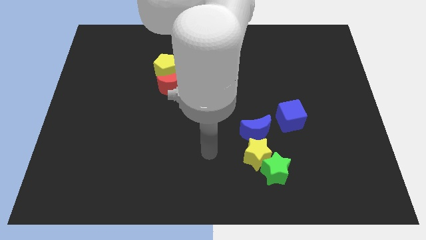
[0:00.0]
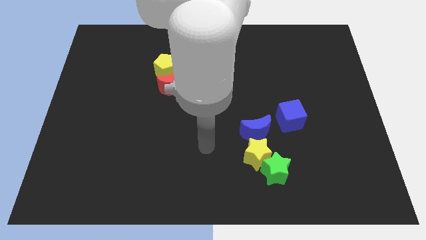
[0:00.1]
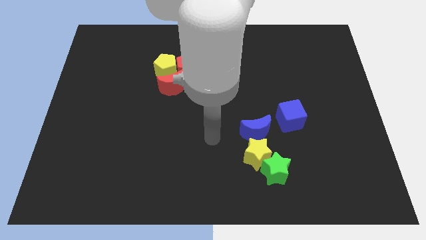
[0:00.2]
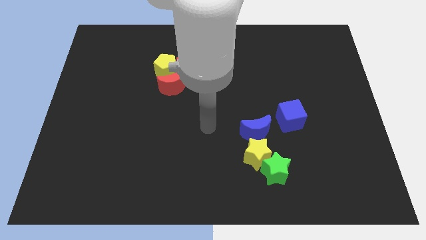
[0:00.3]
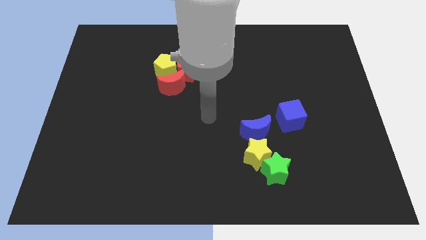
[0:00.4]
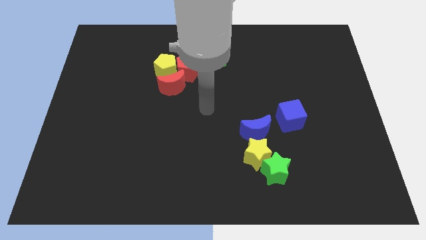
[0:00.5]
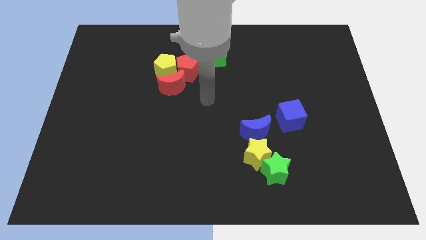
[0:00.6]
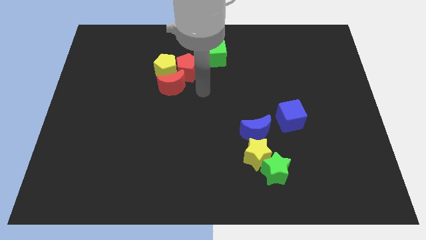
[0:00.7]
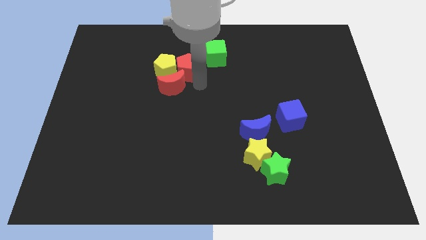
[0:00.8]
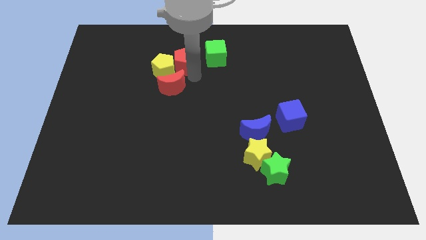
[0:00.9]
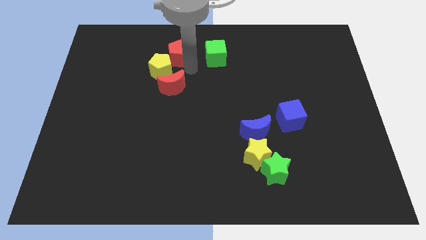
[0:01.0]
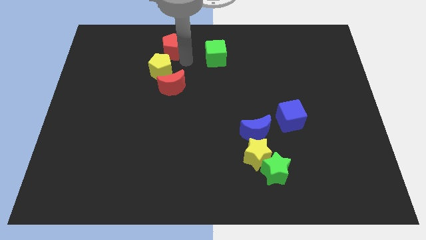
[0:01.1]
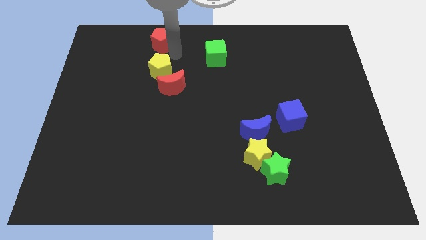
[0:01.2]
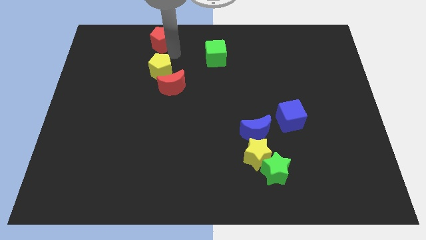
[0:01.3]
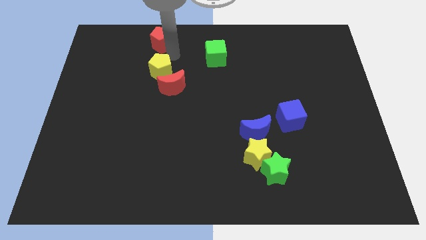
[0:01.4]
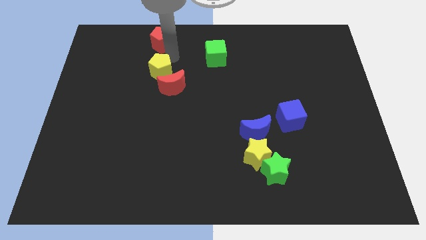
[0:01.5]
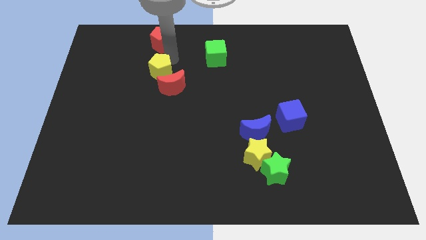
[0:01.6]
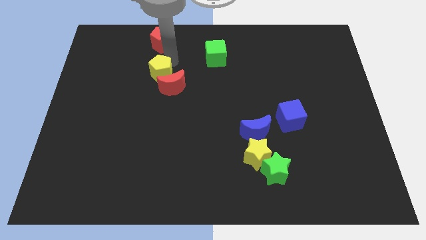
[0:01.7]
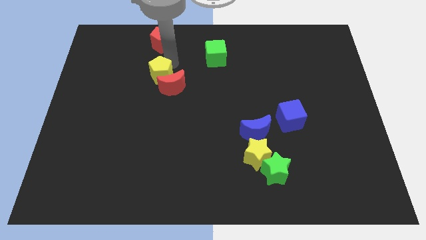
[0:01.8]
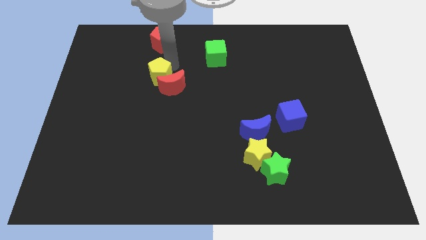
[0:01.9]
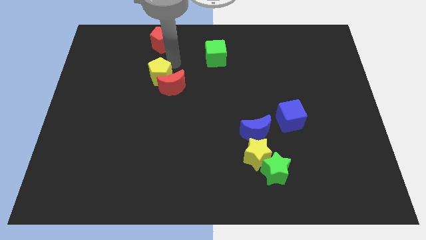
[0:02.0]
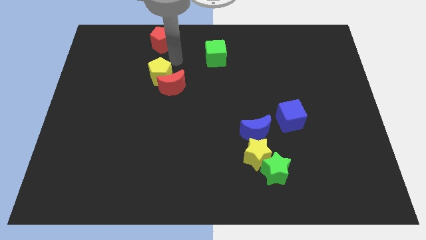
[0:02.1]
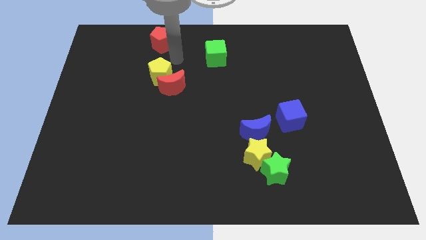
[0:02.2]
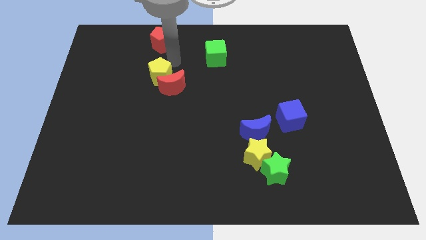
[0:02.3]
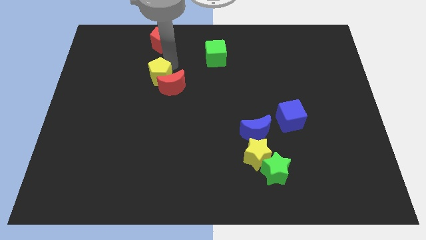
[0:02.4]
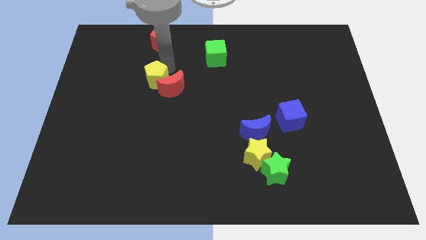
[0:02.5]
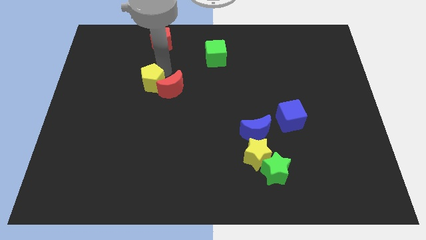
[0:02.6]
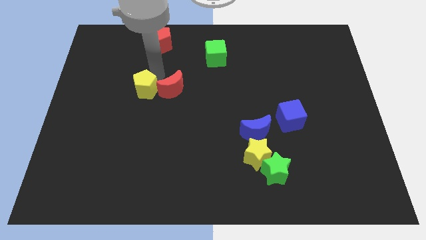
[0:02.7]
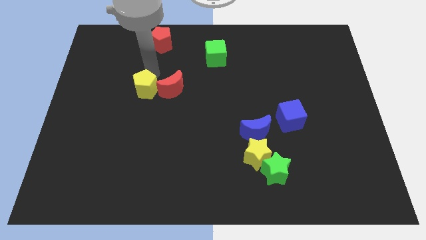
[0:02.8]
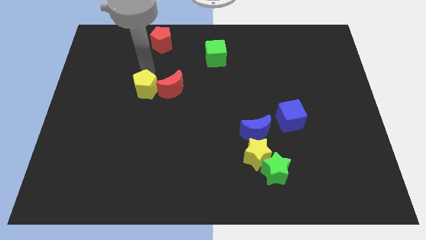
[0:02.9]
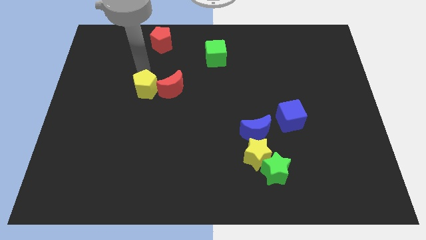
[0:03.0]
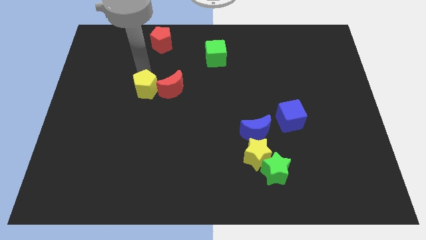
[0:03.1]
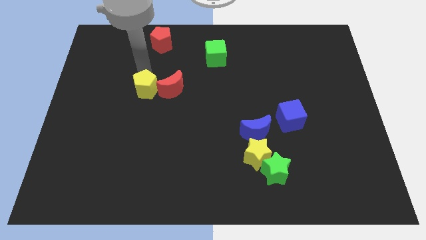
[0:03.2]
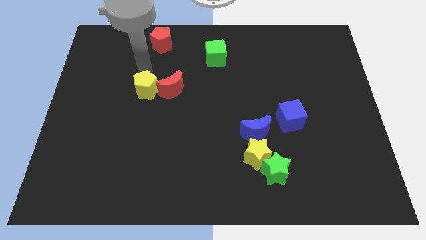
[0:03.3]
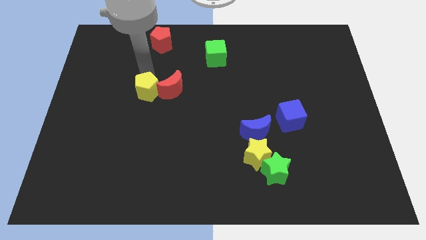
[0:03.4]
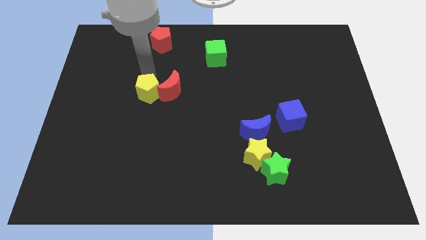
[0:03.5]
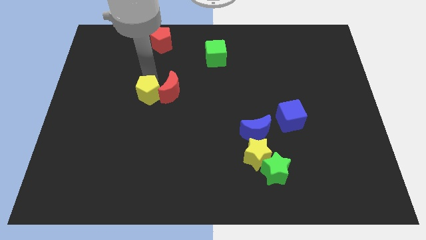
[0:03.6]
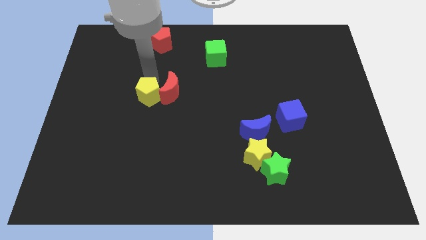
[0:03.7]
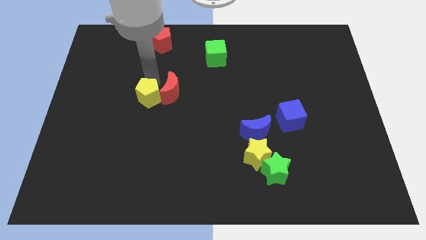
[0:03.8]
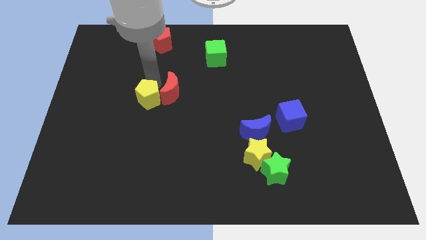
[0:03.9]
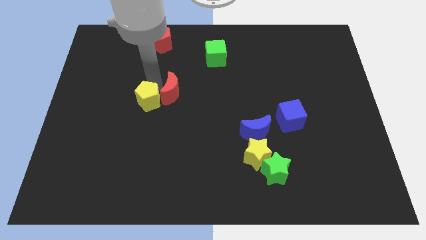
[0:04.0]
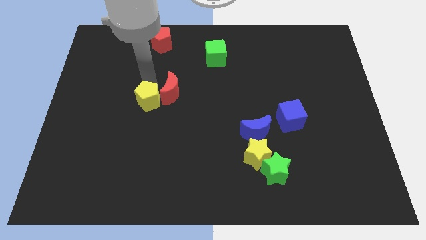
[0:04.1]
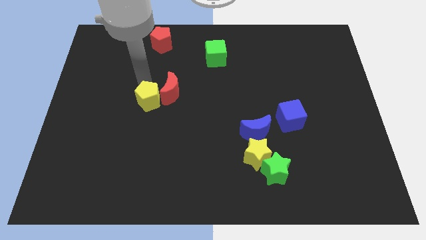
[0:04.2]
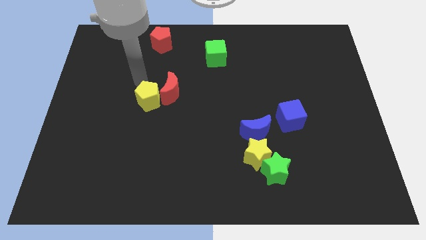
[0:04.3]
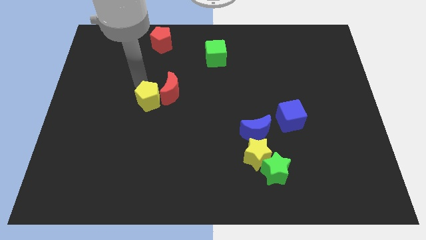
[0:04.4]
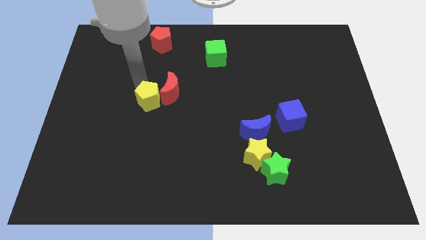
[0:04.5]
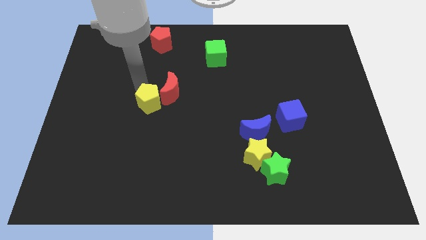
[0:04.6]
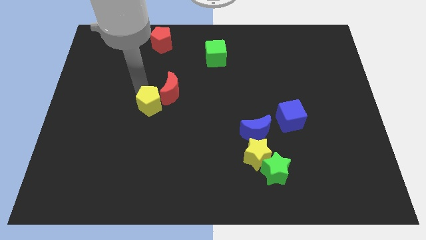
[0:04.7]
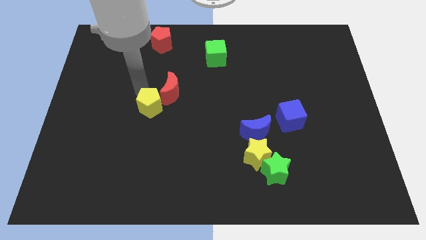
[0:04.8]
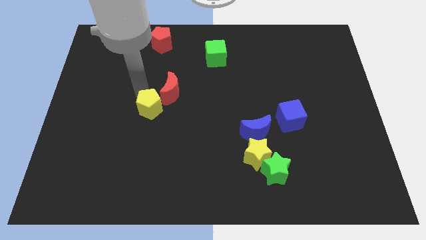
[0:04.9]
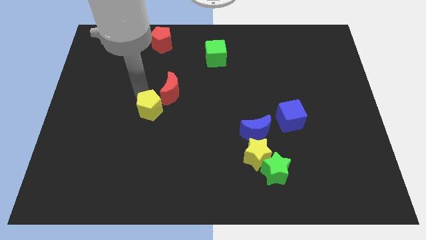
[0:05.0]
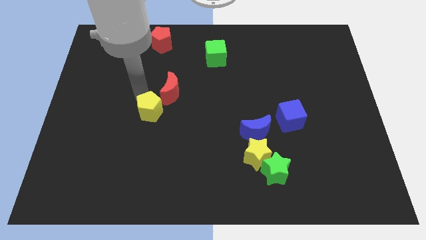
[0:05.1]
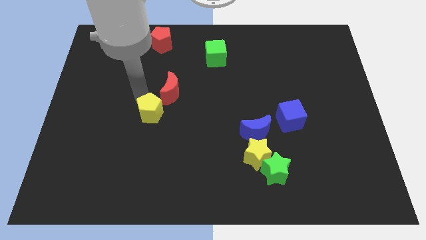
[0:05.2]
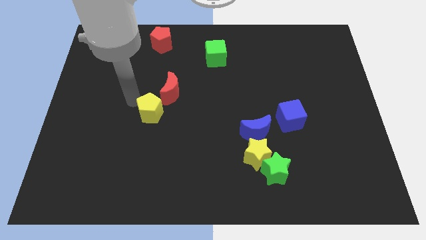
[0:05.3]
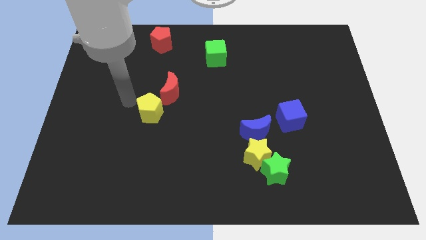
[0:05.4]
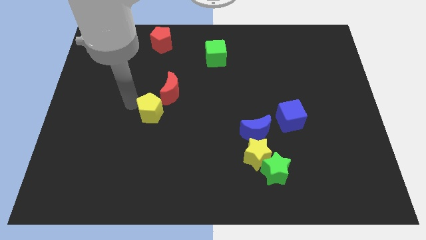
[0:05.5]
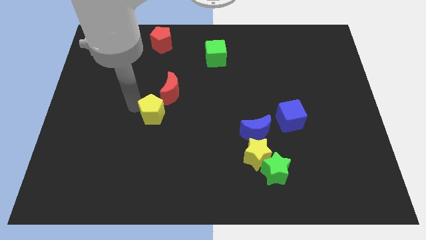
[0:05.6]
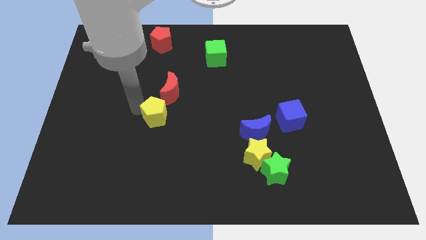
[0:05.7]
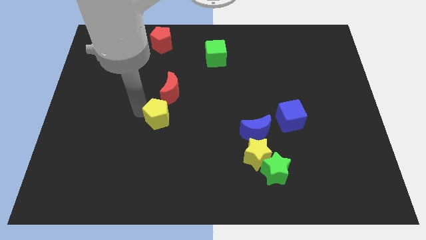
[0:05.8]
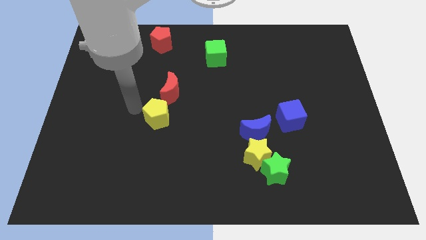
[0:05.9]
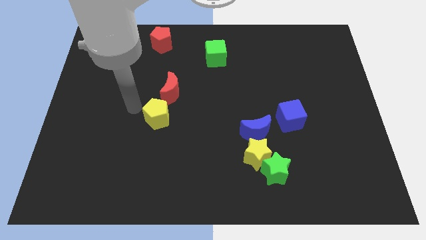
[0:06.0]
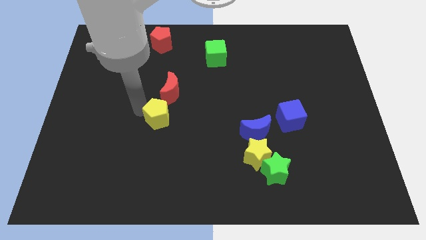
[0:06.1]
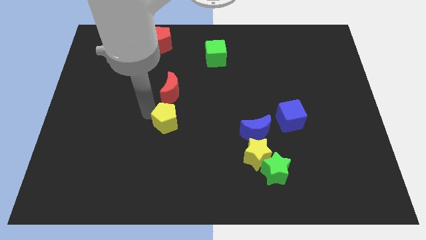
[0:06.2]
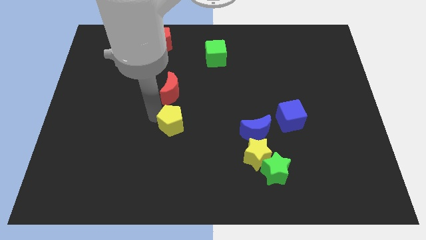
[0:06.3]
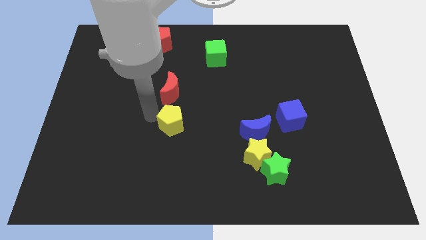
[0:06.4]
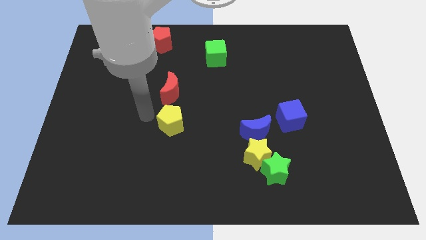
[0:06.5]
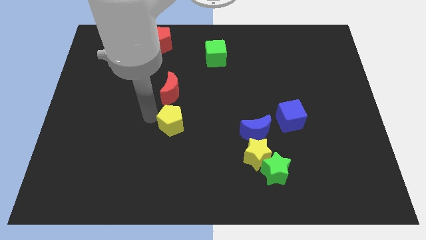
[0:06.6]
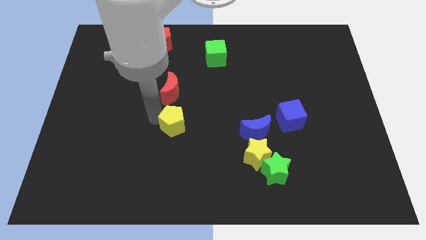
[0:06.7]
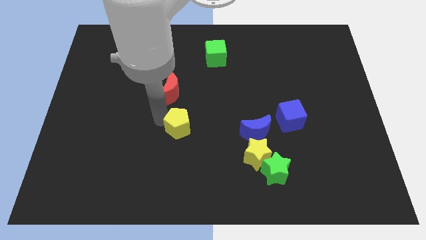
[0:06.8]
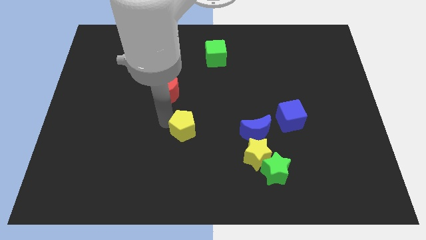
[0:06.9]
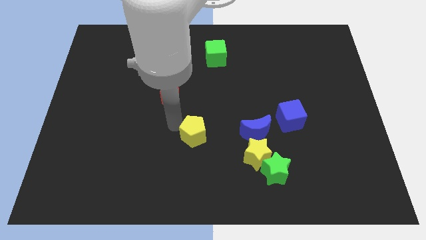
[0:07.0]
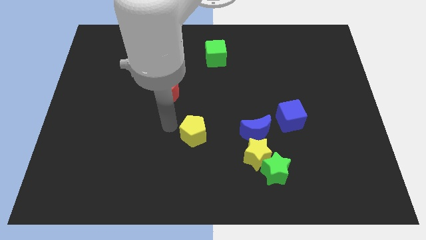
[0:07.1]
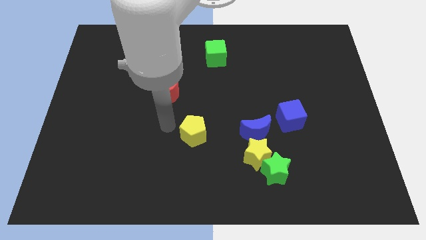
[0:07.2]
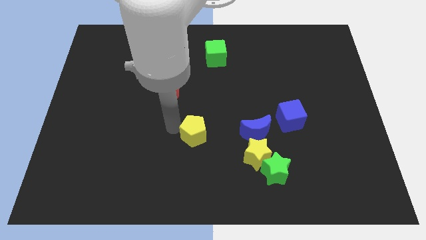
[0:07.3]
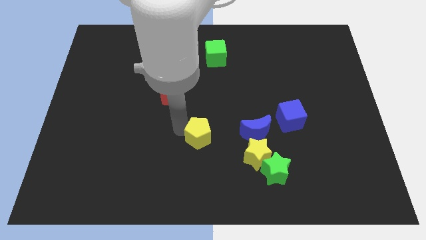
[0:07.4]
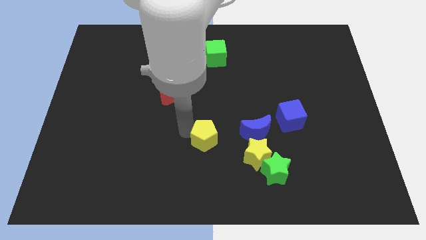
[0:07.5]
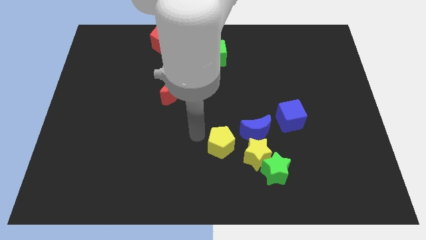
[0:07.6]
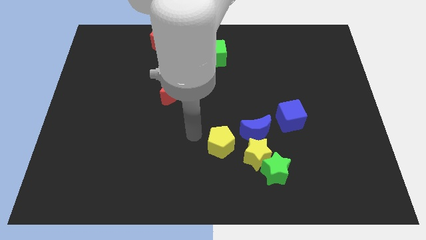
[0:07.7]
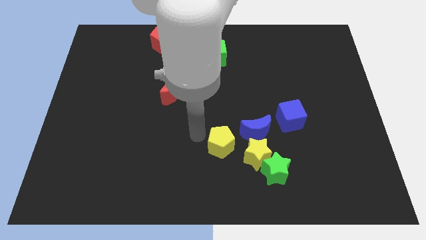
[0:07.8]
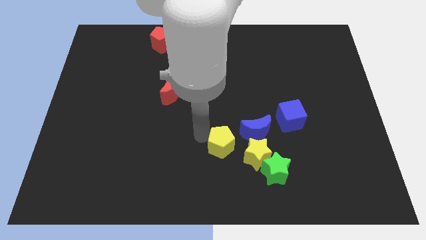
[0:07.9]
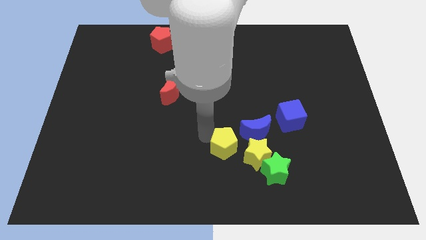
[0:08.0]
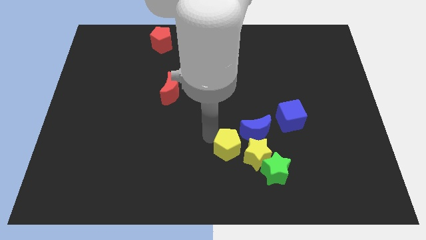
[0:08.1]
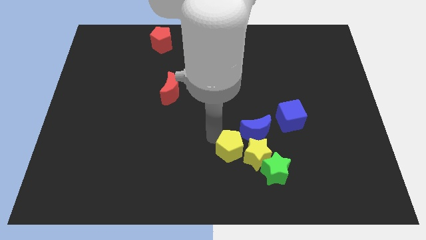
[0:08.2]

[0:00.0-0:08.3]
slide the yellow pentagon towards the yellow star
